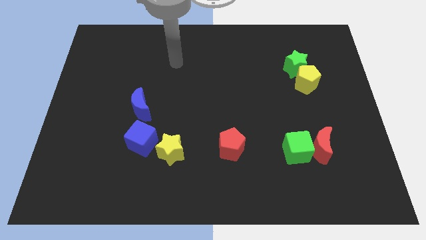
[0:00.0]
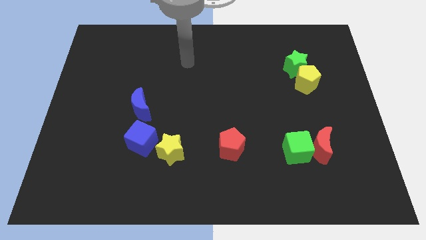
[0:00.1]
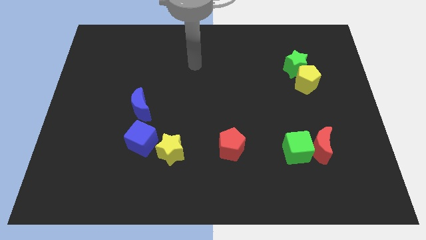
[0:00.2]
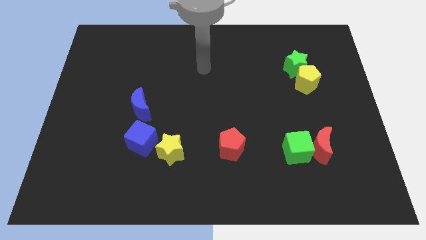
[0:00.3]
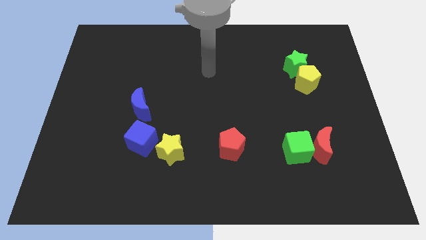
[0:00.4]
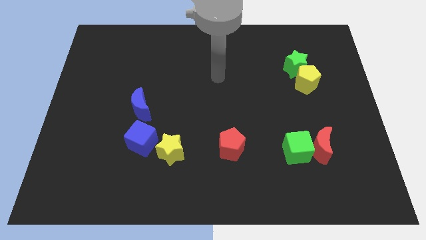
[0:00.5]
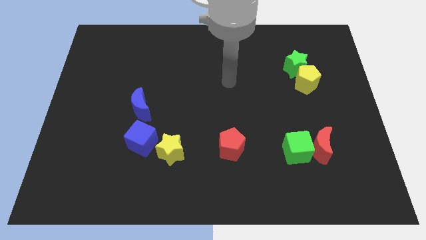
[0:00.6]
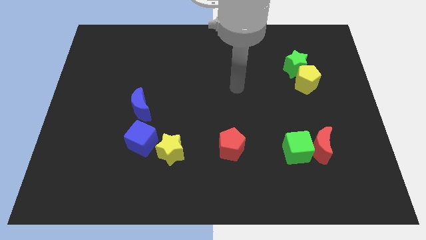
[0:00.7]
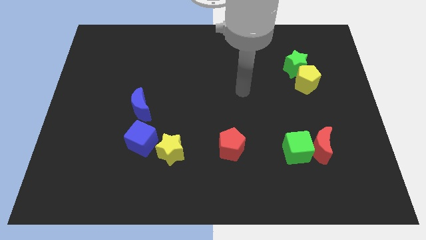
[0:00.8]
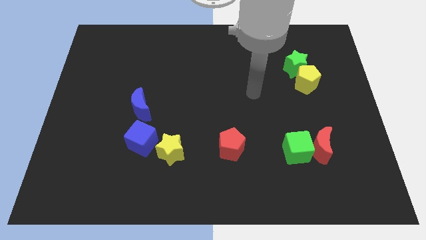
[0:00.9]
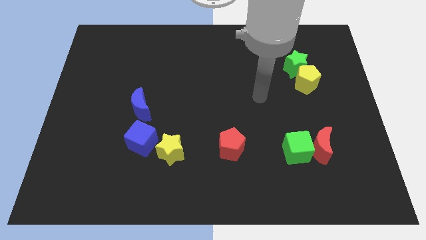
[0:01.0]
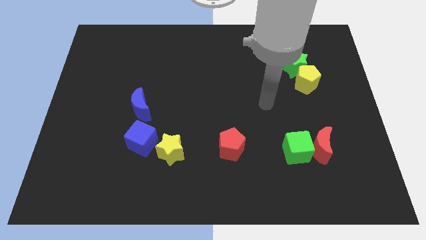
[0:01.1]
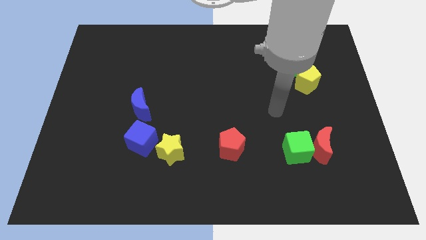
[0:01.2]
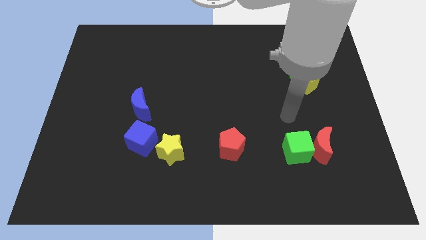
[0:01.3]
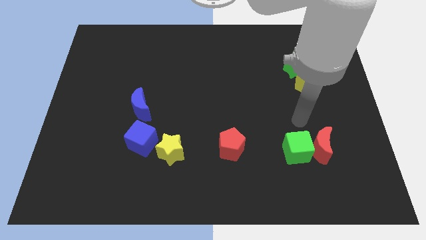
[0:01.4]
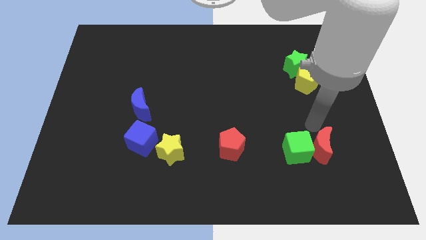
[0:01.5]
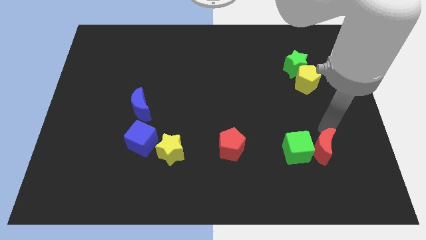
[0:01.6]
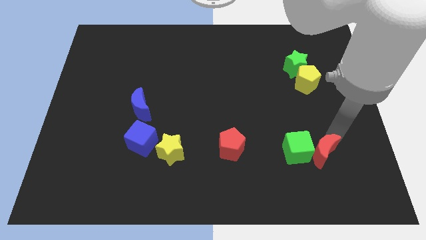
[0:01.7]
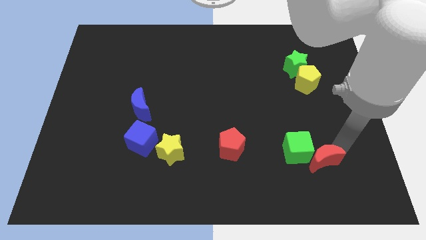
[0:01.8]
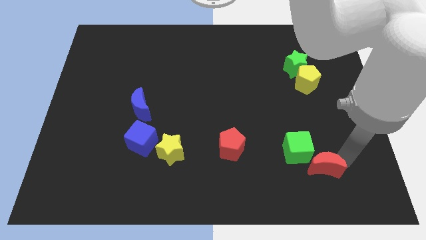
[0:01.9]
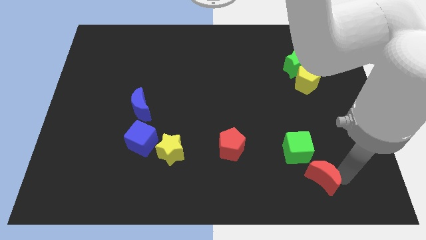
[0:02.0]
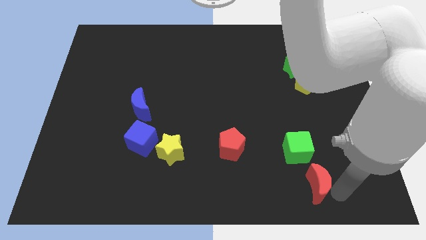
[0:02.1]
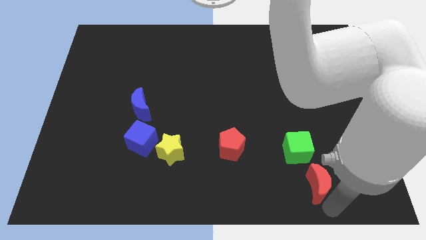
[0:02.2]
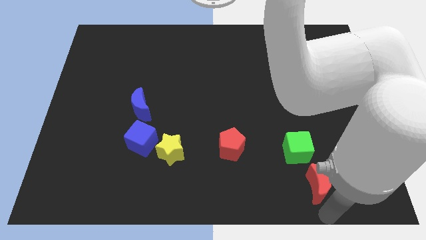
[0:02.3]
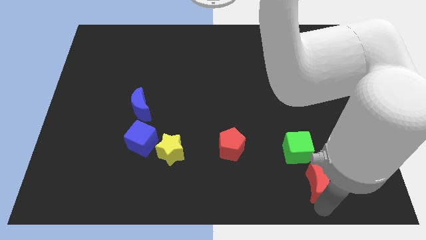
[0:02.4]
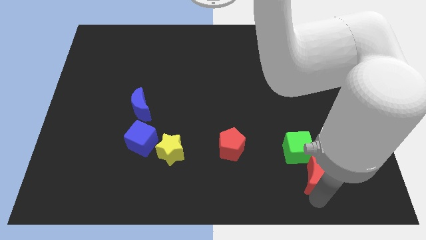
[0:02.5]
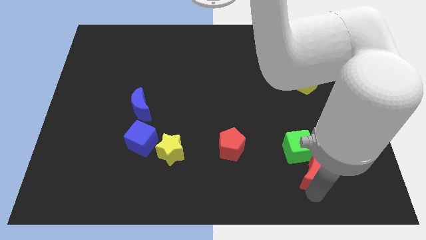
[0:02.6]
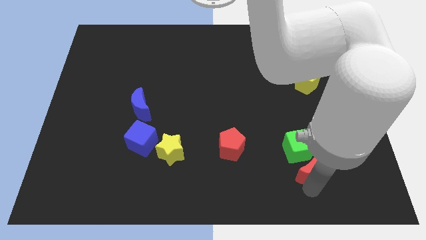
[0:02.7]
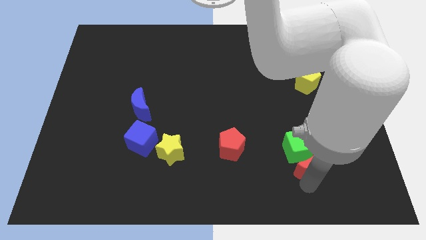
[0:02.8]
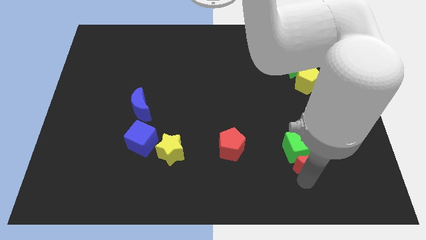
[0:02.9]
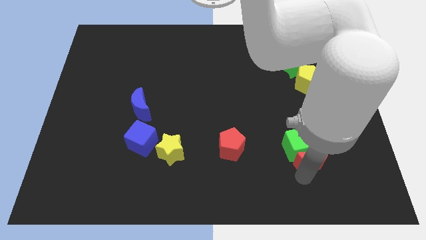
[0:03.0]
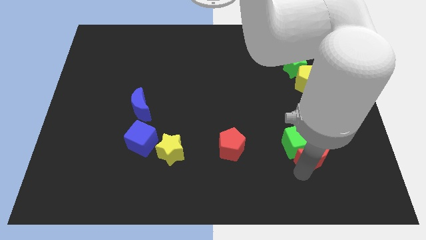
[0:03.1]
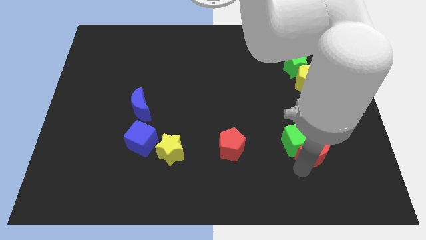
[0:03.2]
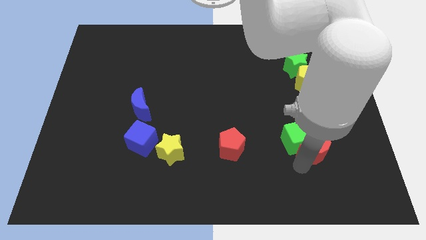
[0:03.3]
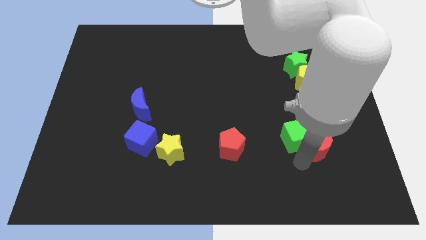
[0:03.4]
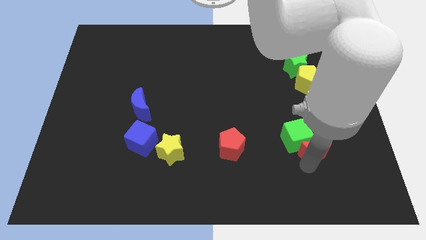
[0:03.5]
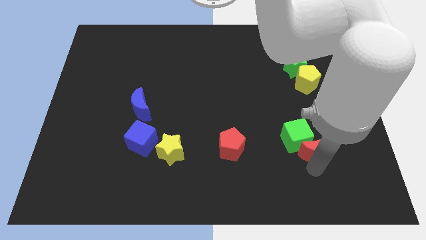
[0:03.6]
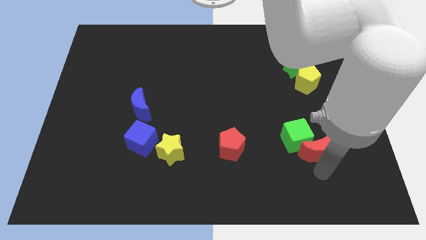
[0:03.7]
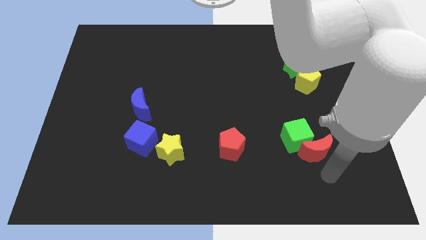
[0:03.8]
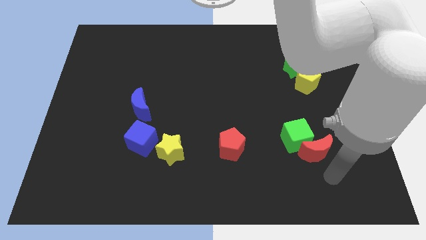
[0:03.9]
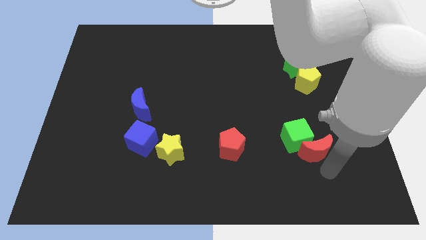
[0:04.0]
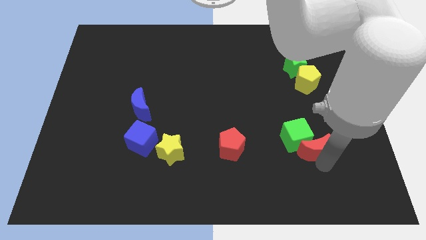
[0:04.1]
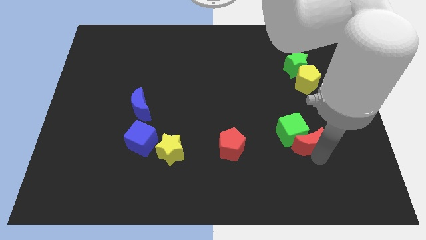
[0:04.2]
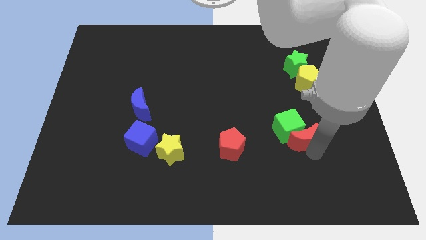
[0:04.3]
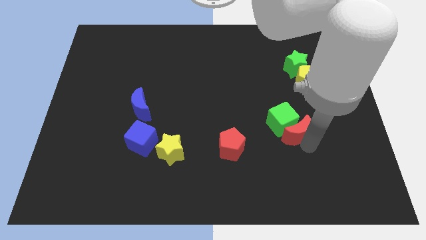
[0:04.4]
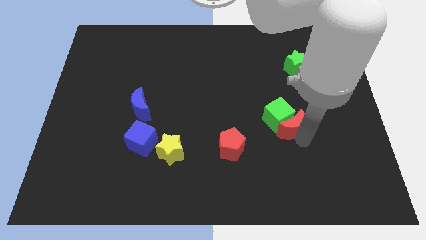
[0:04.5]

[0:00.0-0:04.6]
move the red moon upwards and left a little

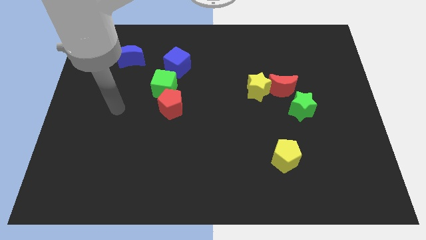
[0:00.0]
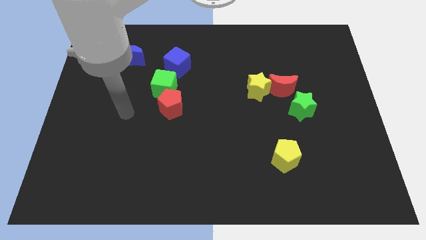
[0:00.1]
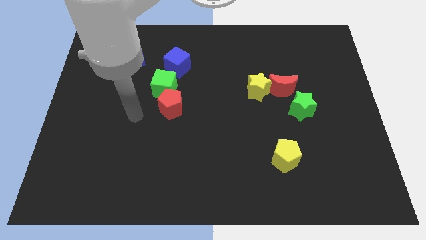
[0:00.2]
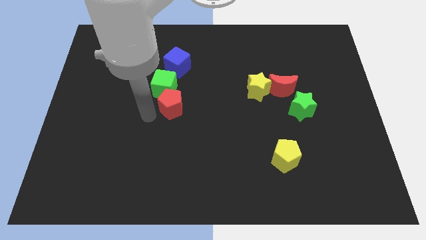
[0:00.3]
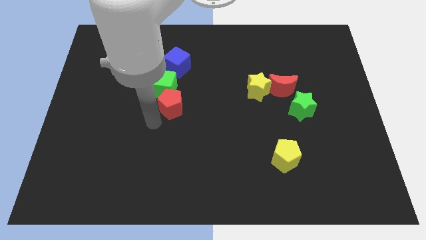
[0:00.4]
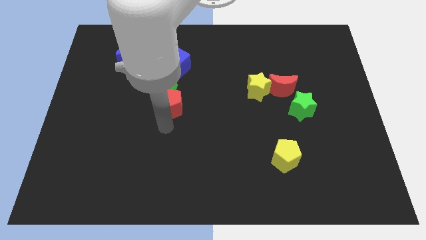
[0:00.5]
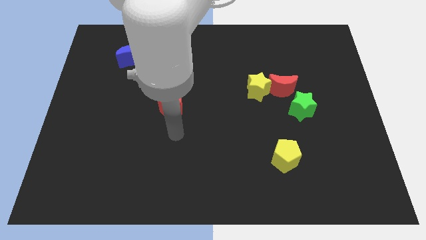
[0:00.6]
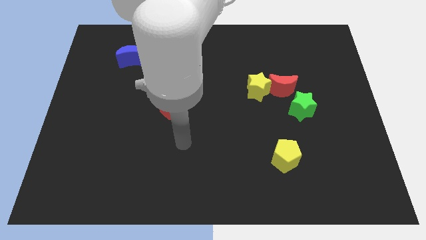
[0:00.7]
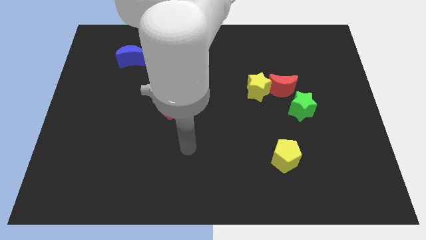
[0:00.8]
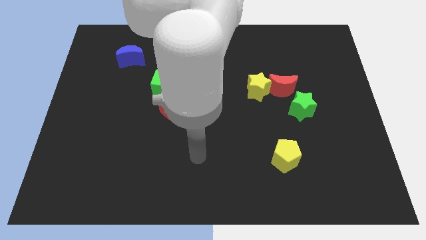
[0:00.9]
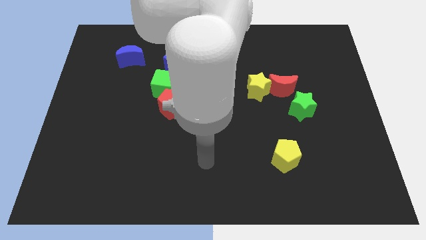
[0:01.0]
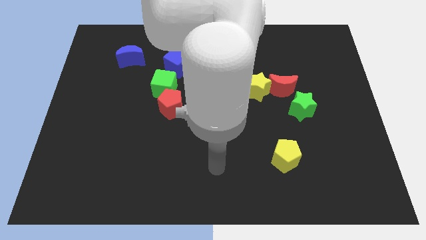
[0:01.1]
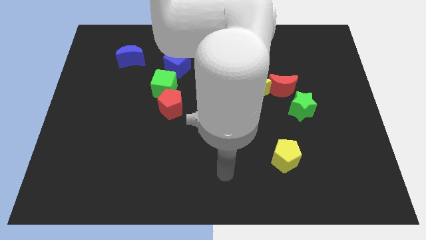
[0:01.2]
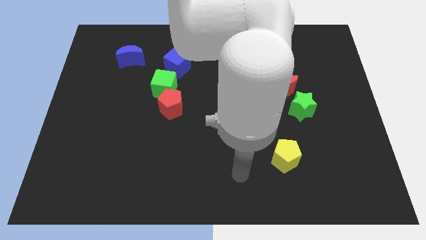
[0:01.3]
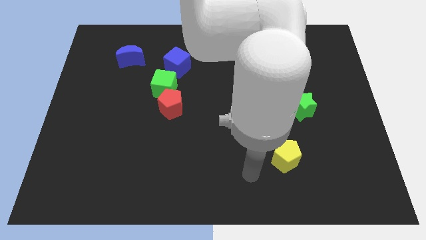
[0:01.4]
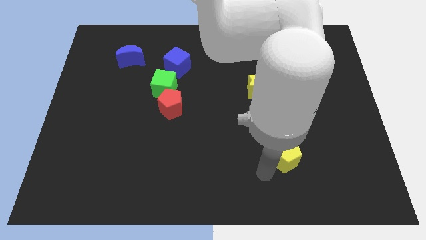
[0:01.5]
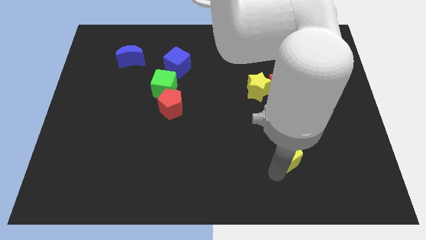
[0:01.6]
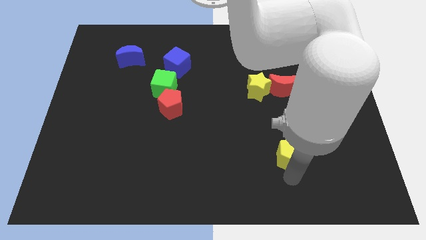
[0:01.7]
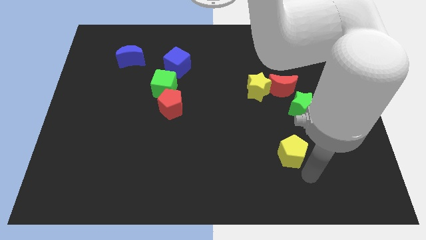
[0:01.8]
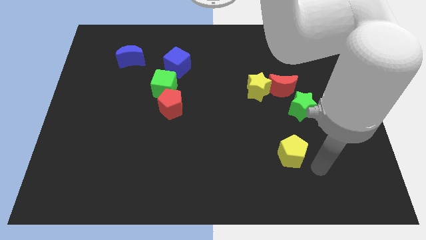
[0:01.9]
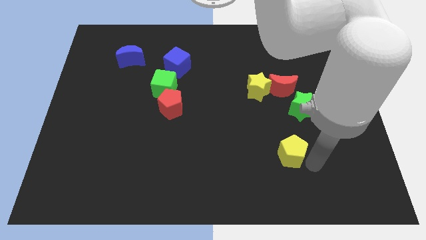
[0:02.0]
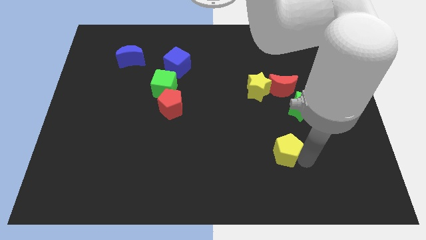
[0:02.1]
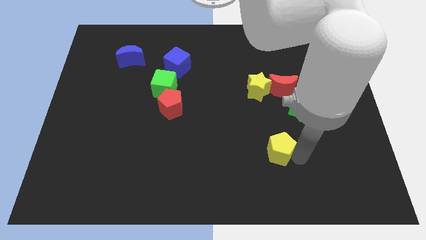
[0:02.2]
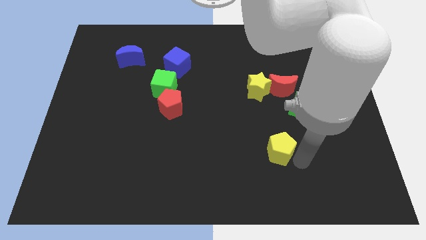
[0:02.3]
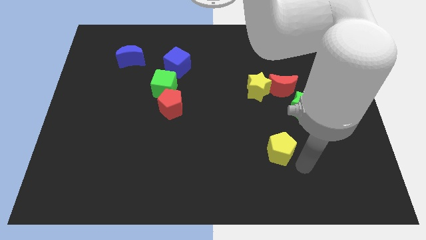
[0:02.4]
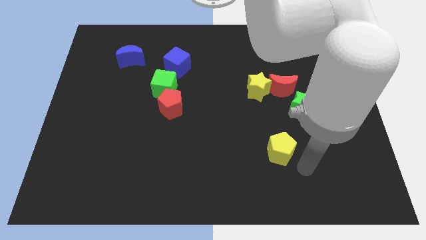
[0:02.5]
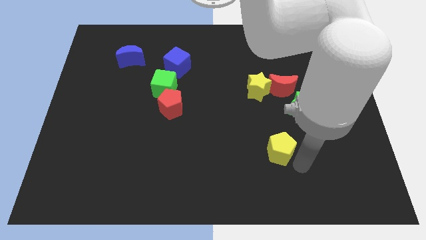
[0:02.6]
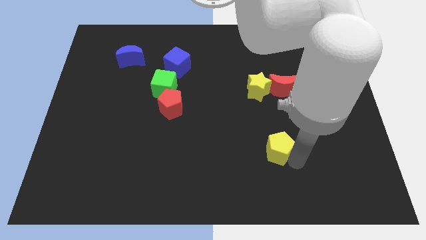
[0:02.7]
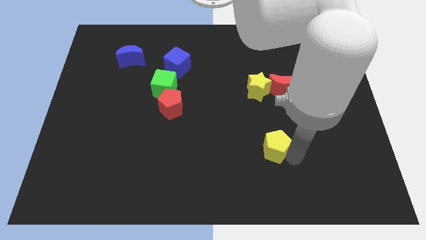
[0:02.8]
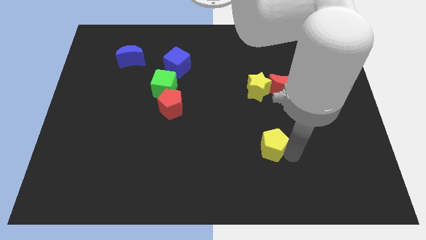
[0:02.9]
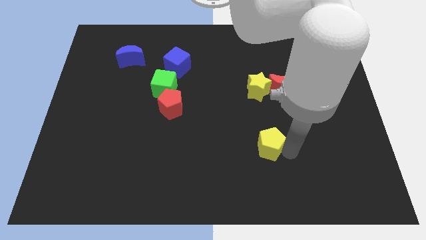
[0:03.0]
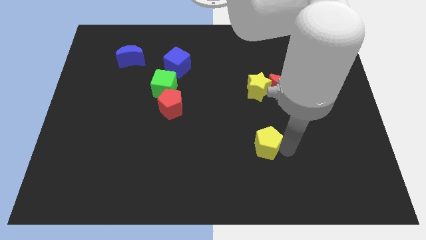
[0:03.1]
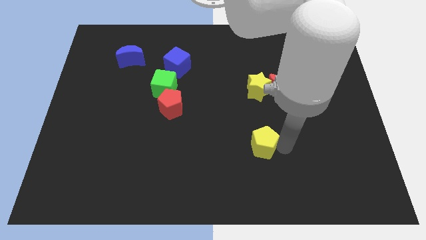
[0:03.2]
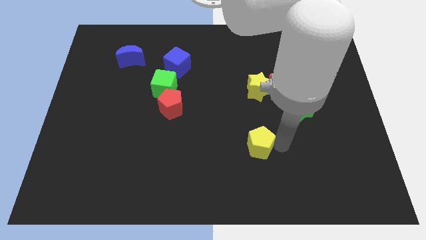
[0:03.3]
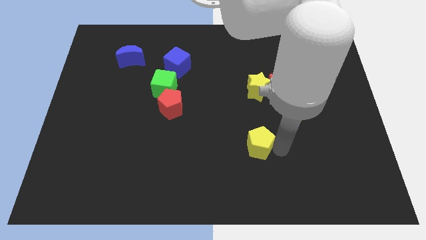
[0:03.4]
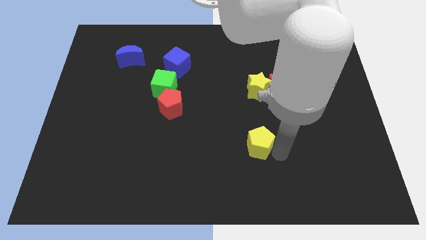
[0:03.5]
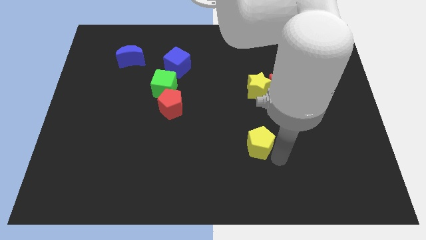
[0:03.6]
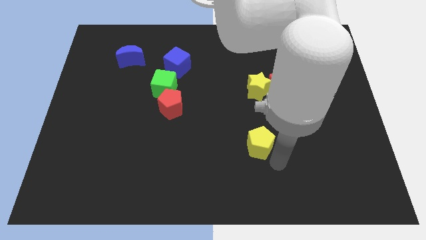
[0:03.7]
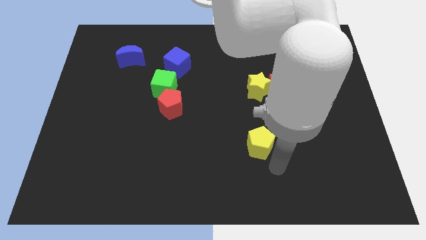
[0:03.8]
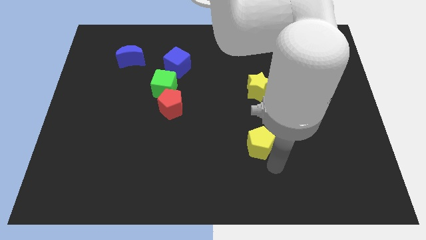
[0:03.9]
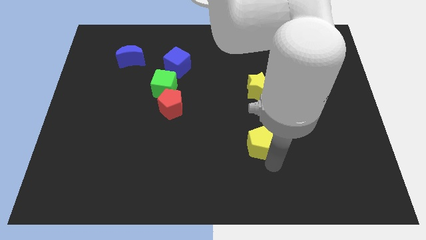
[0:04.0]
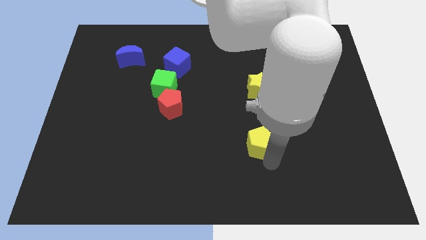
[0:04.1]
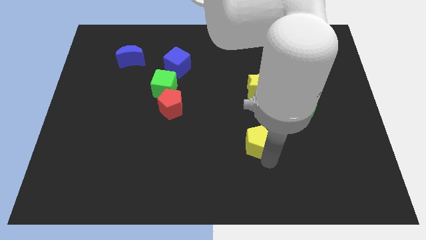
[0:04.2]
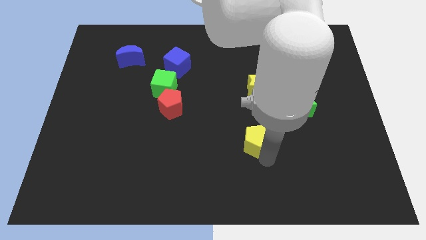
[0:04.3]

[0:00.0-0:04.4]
push the yellow pentagon upwards and to the left a bit
